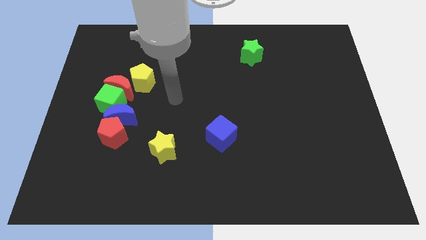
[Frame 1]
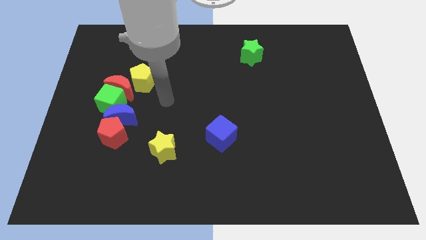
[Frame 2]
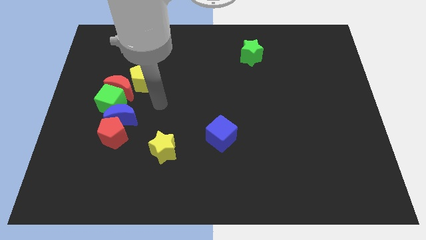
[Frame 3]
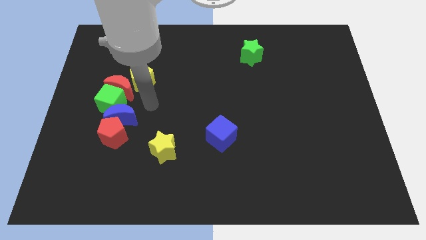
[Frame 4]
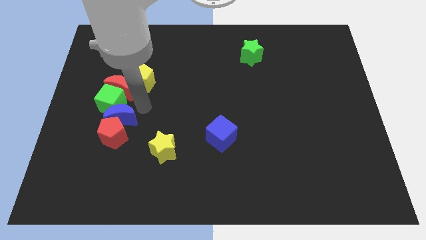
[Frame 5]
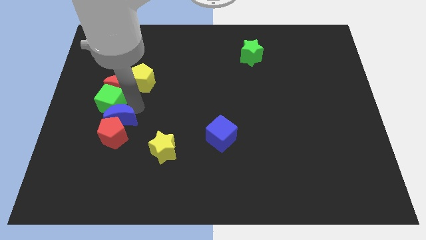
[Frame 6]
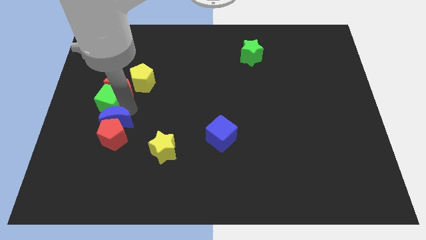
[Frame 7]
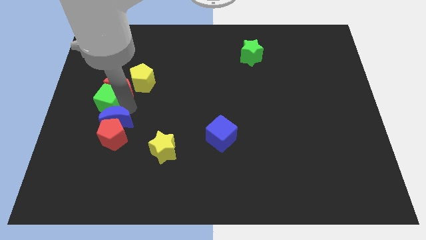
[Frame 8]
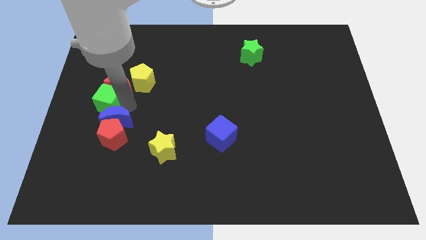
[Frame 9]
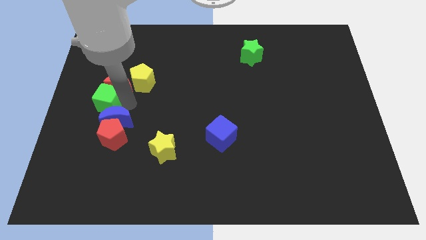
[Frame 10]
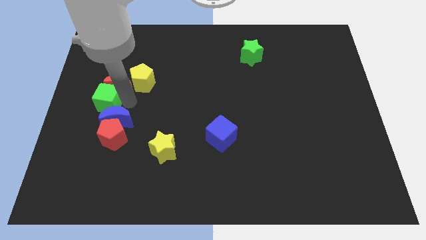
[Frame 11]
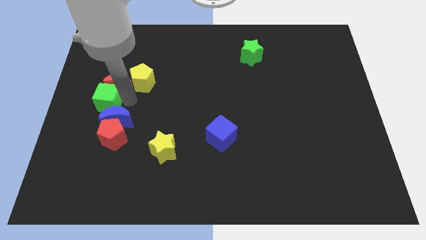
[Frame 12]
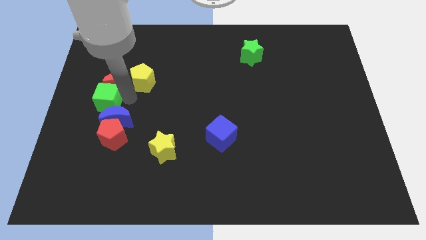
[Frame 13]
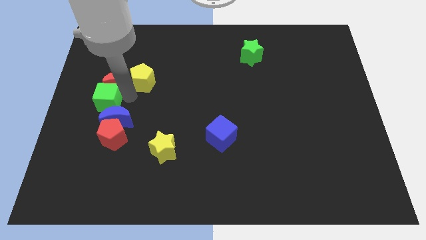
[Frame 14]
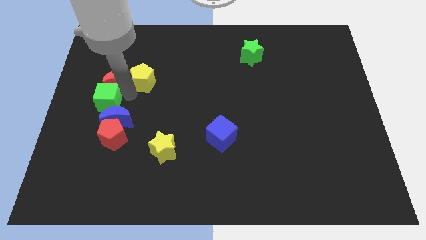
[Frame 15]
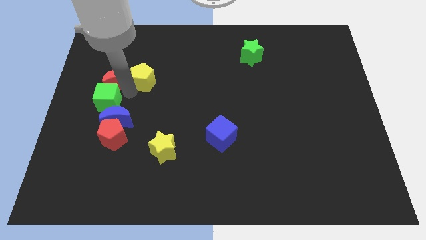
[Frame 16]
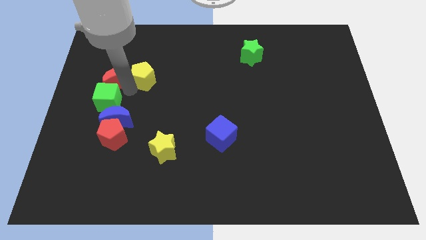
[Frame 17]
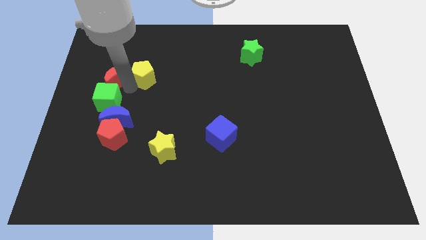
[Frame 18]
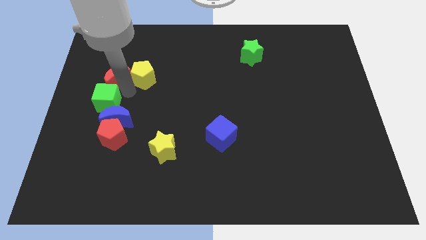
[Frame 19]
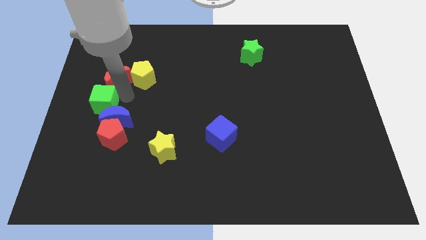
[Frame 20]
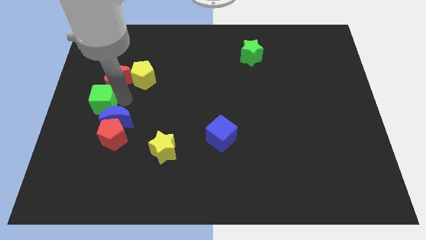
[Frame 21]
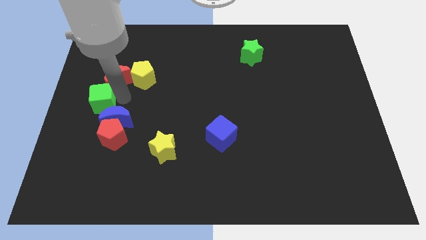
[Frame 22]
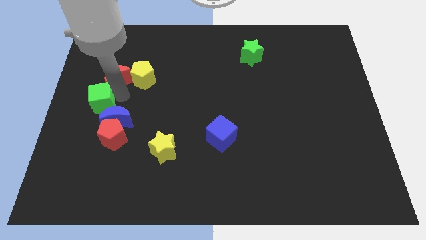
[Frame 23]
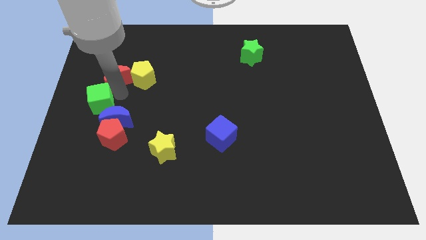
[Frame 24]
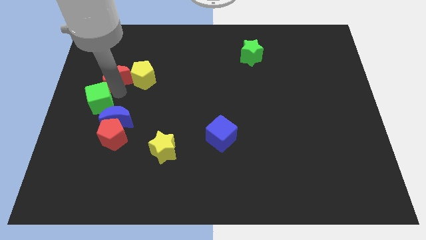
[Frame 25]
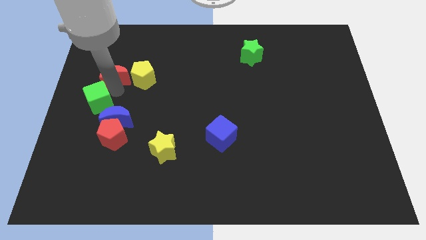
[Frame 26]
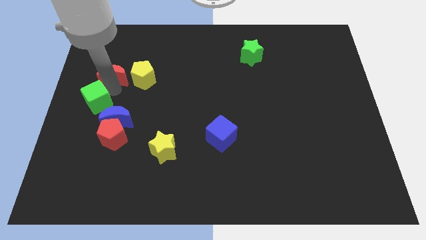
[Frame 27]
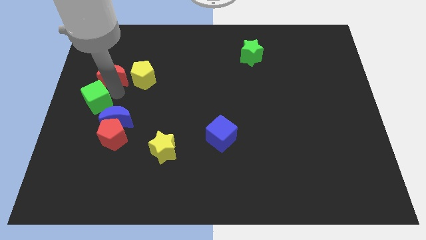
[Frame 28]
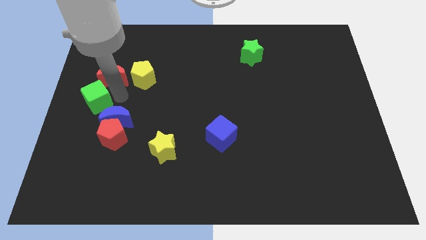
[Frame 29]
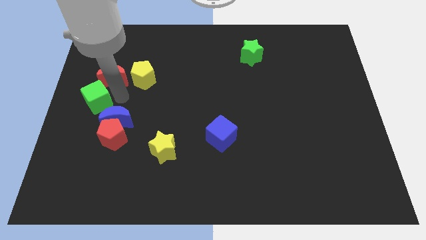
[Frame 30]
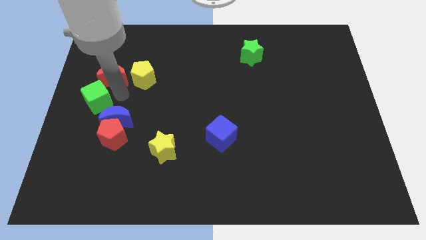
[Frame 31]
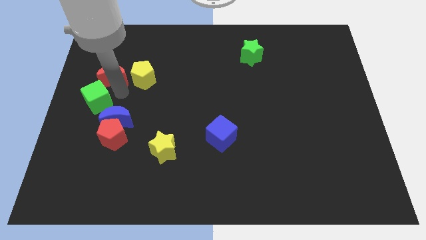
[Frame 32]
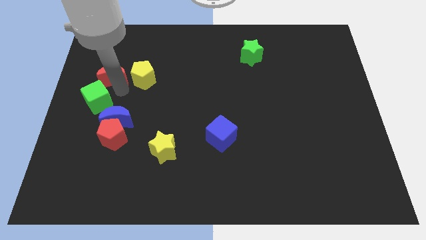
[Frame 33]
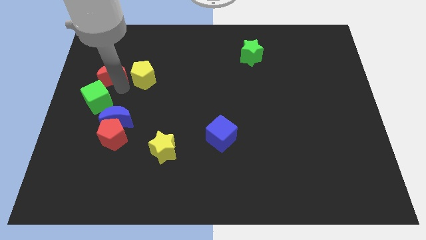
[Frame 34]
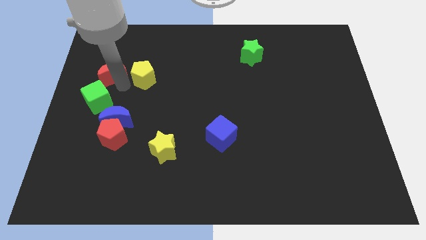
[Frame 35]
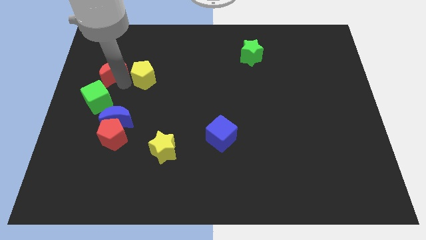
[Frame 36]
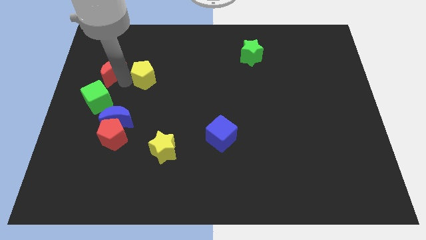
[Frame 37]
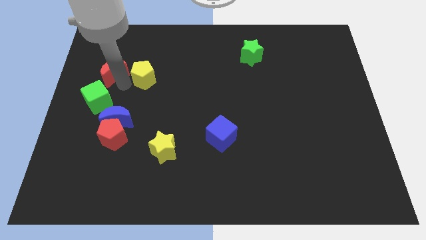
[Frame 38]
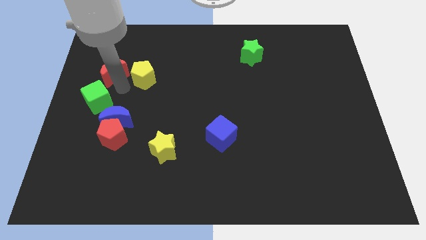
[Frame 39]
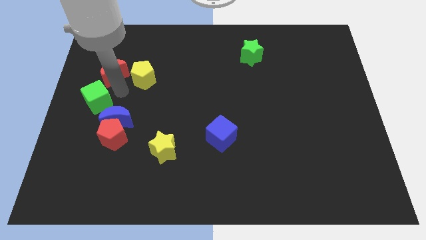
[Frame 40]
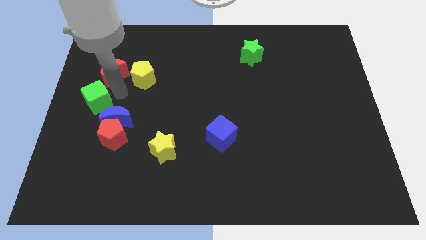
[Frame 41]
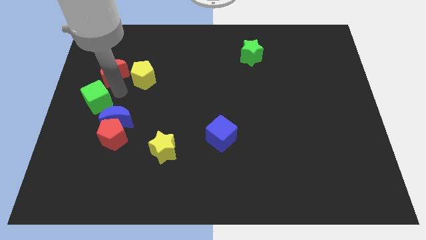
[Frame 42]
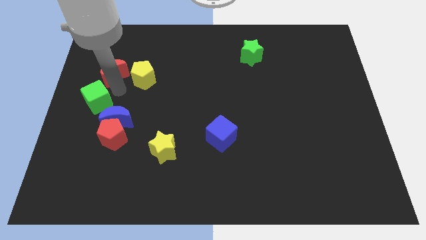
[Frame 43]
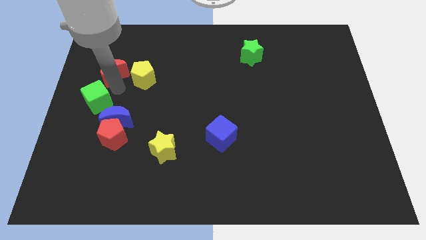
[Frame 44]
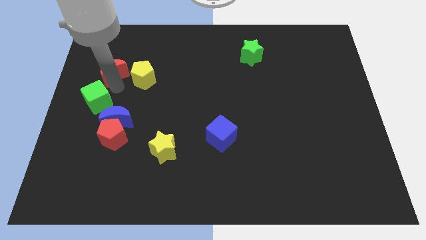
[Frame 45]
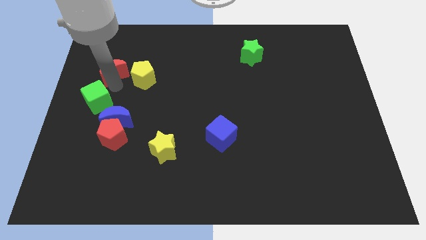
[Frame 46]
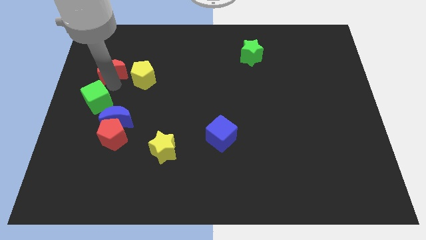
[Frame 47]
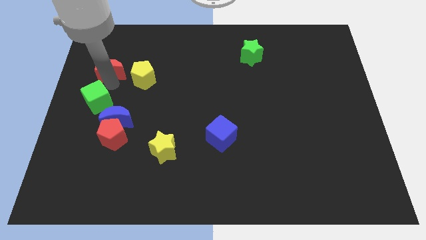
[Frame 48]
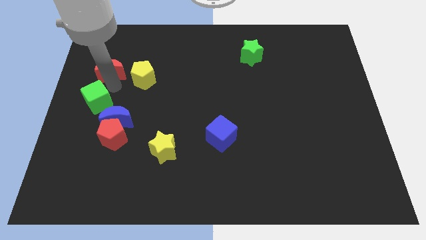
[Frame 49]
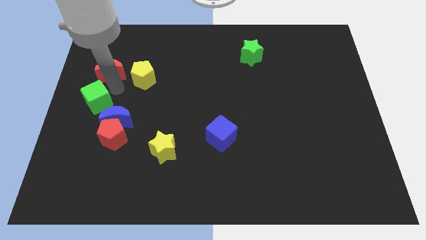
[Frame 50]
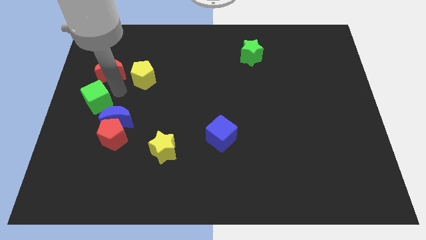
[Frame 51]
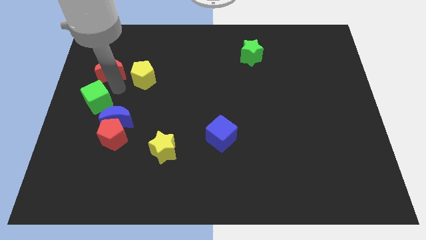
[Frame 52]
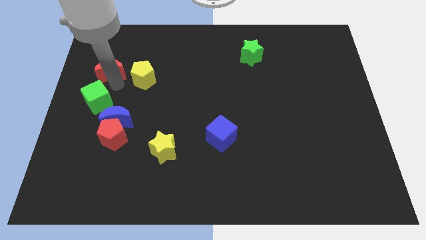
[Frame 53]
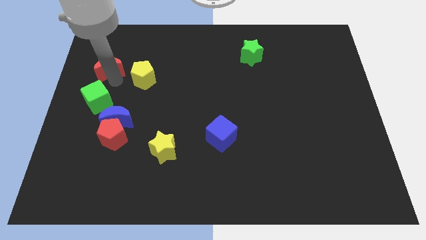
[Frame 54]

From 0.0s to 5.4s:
move the red moon away from the clump

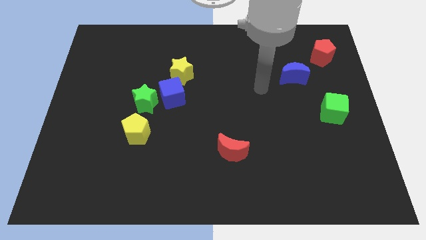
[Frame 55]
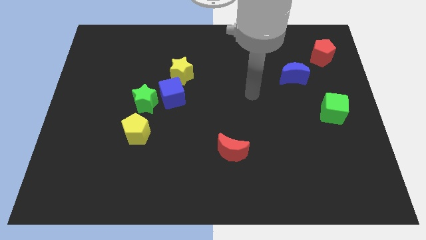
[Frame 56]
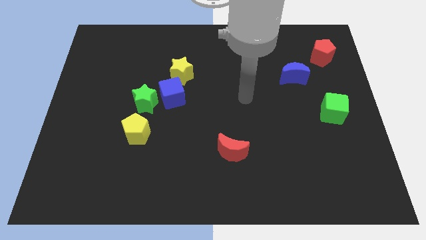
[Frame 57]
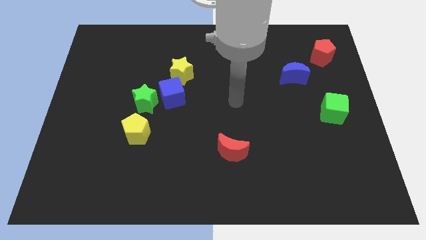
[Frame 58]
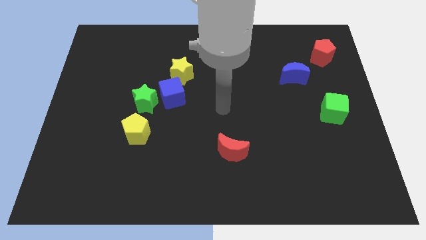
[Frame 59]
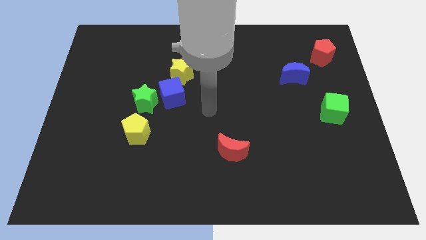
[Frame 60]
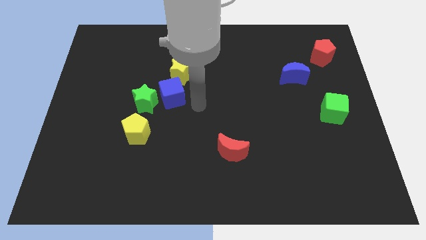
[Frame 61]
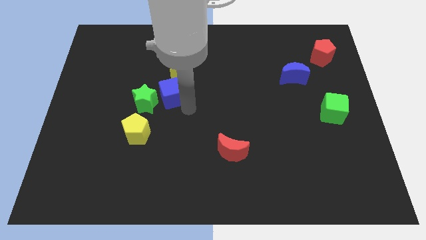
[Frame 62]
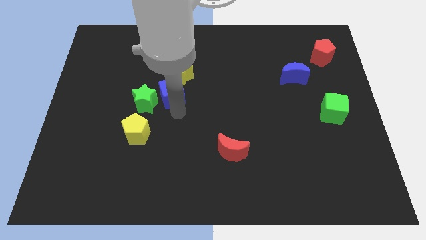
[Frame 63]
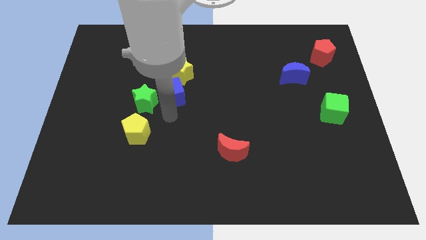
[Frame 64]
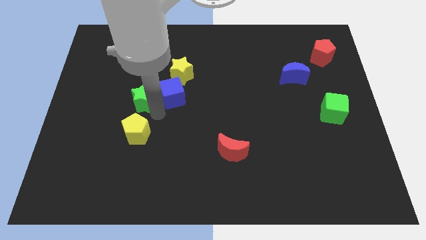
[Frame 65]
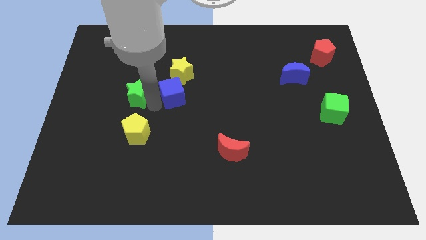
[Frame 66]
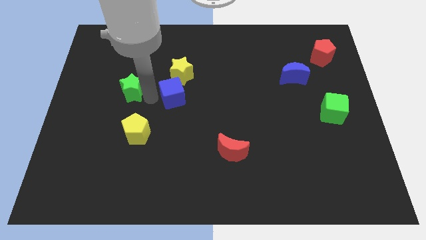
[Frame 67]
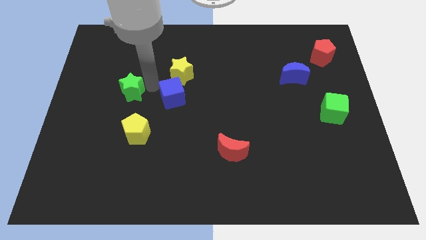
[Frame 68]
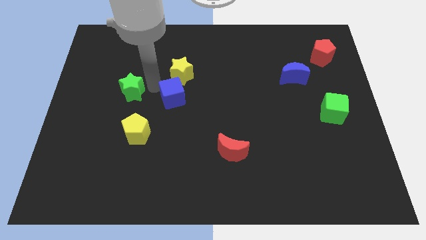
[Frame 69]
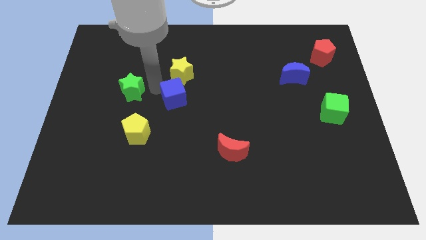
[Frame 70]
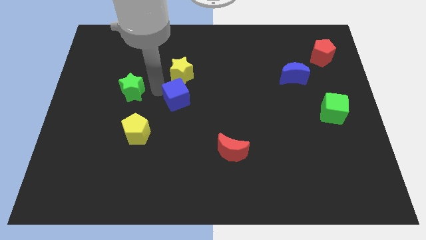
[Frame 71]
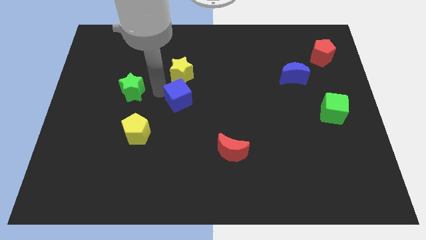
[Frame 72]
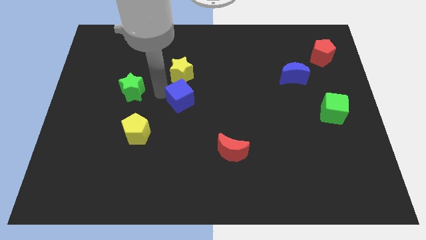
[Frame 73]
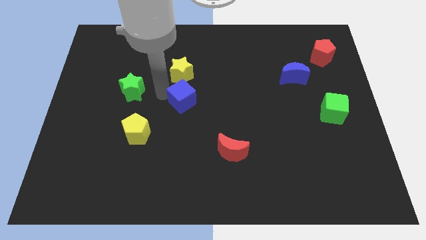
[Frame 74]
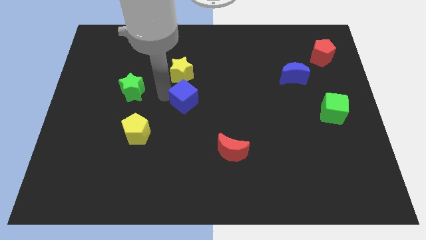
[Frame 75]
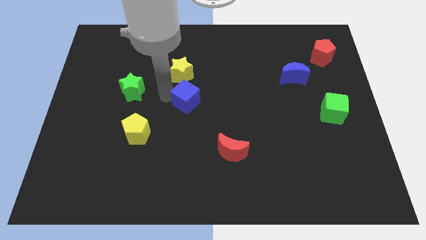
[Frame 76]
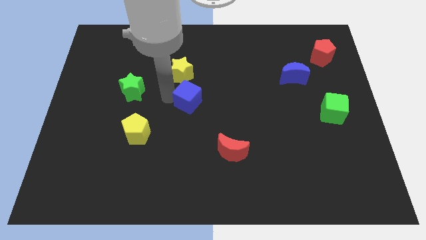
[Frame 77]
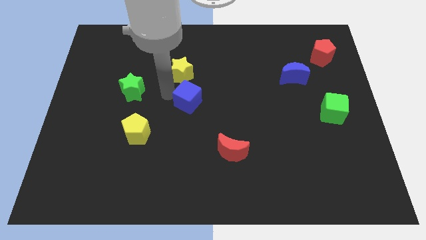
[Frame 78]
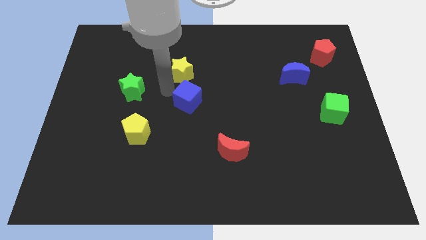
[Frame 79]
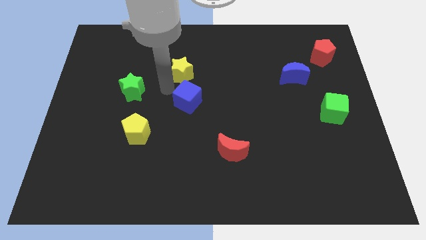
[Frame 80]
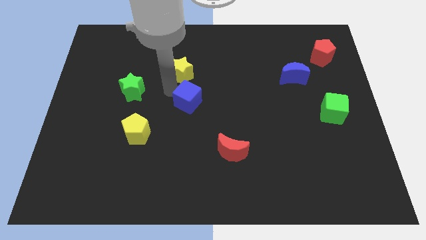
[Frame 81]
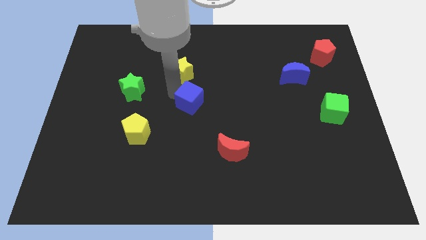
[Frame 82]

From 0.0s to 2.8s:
pull the blue cube apart from the green star and yellow star

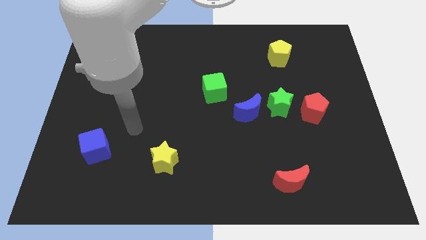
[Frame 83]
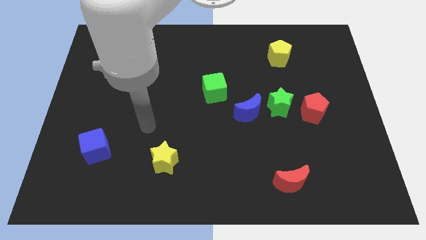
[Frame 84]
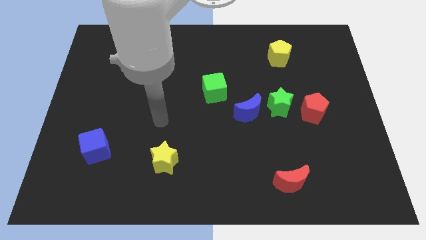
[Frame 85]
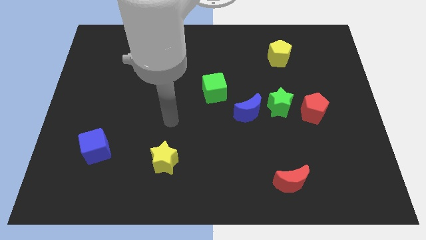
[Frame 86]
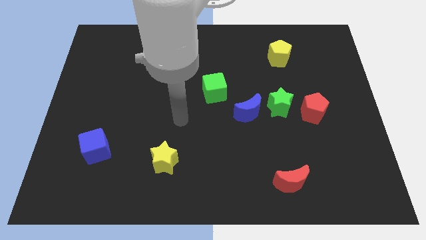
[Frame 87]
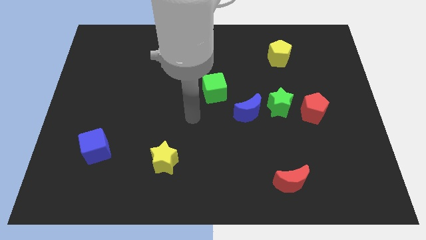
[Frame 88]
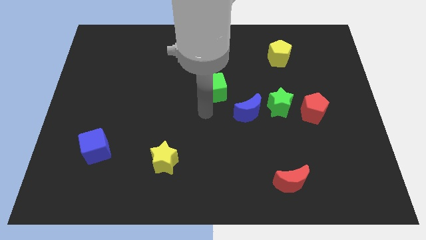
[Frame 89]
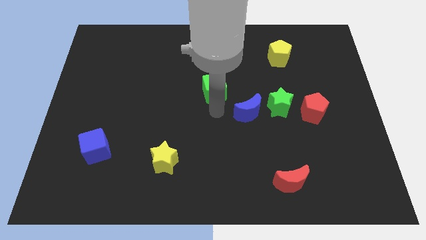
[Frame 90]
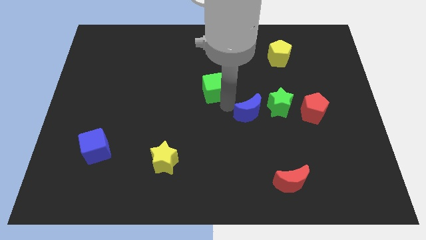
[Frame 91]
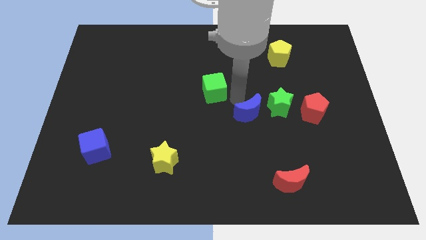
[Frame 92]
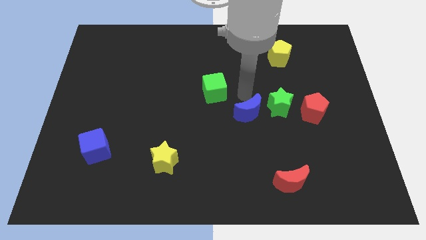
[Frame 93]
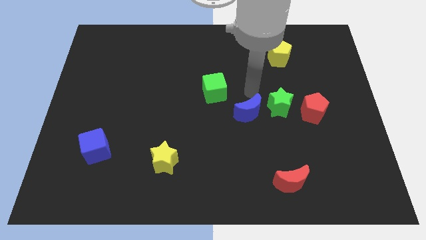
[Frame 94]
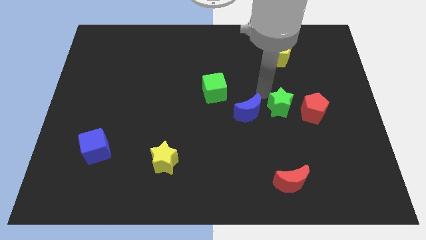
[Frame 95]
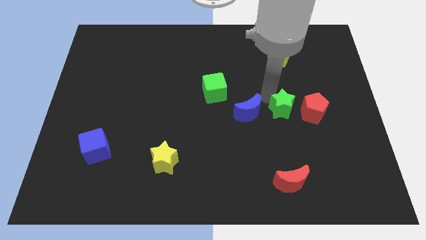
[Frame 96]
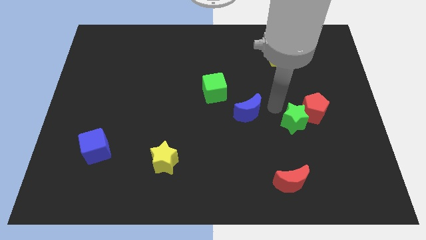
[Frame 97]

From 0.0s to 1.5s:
pull the blue moon apart from the green star
